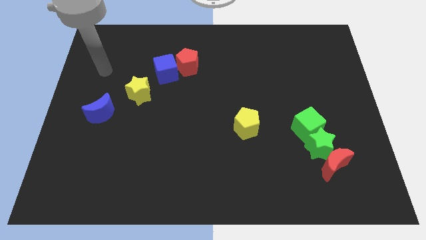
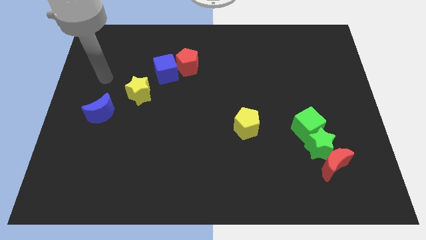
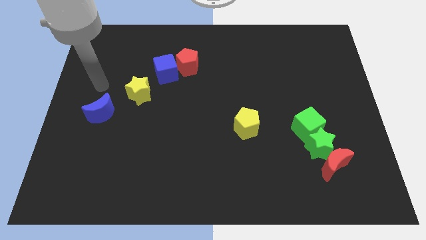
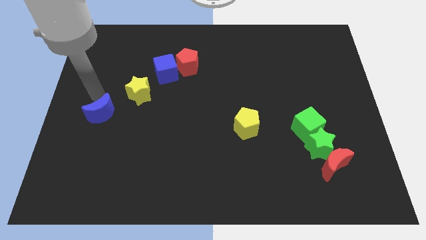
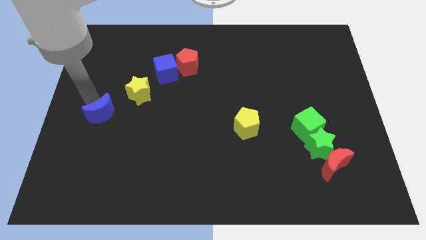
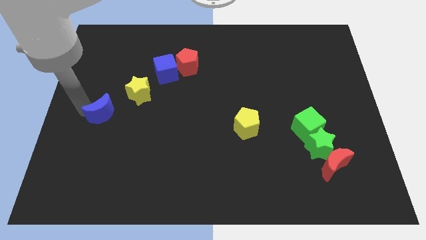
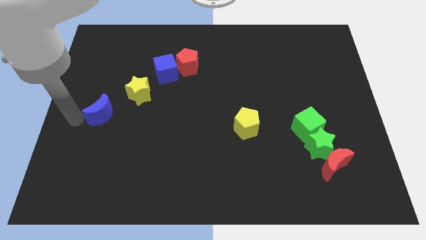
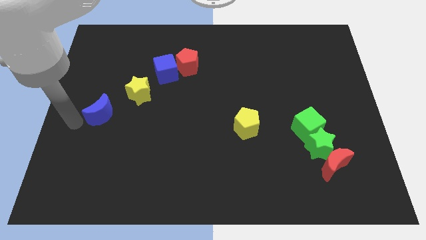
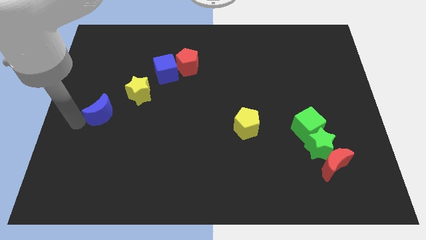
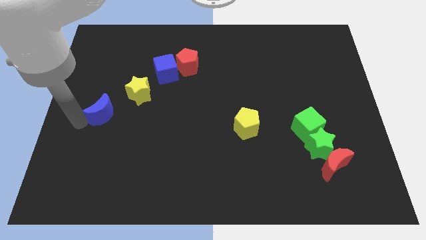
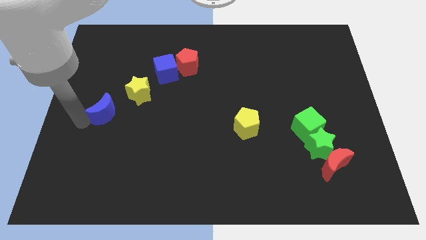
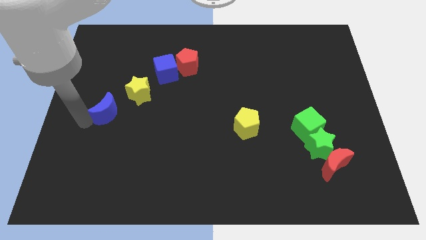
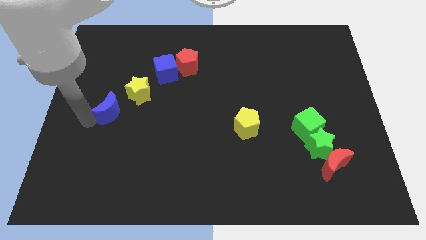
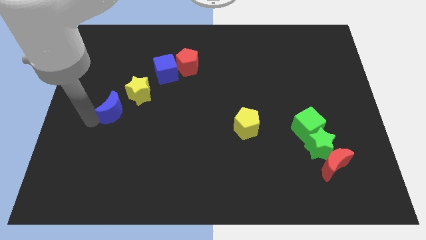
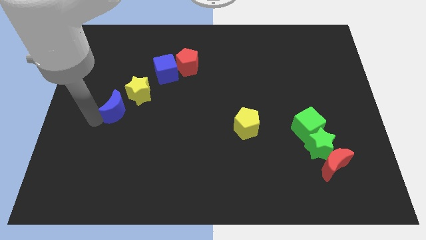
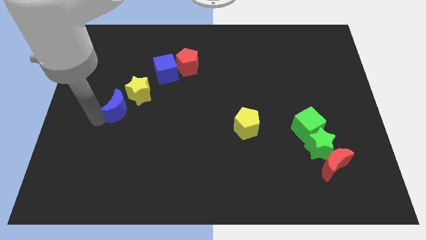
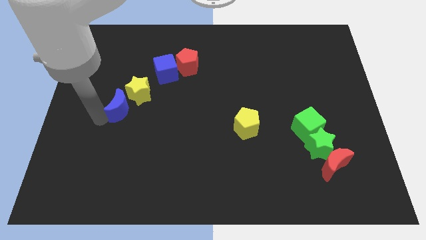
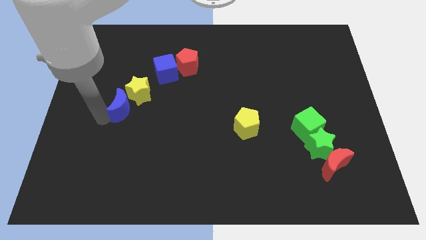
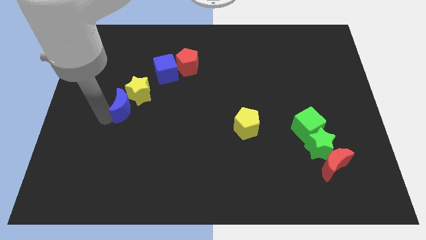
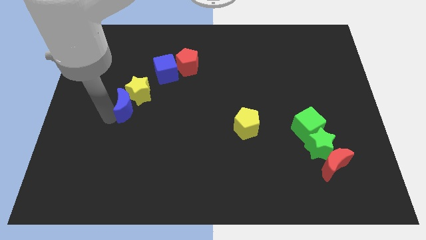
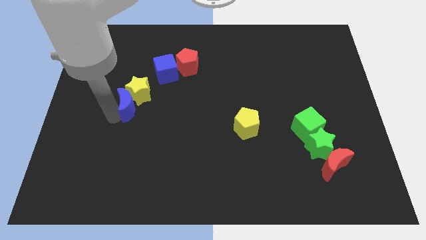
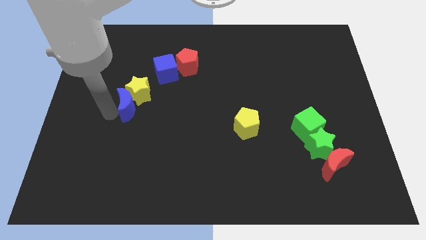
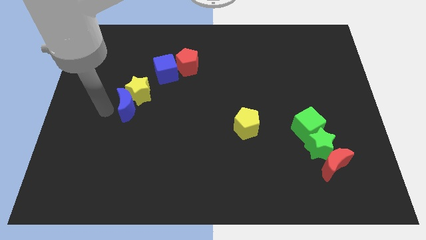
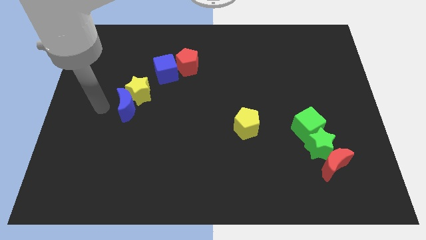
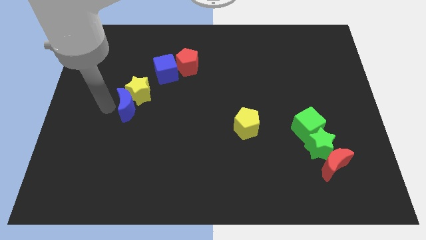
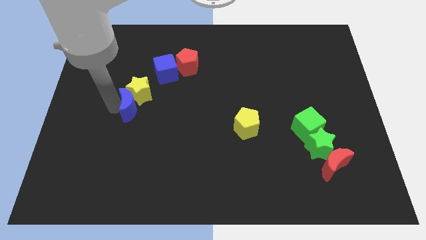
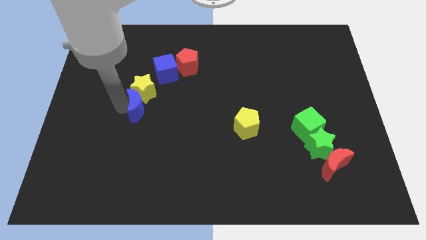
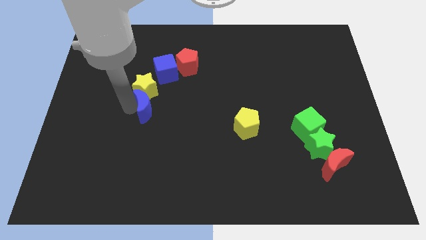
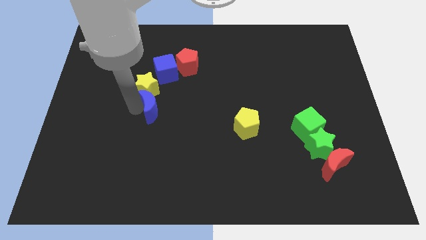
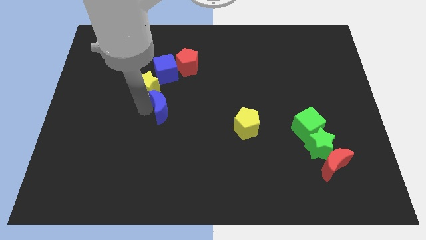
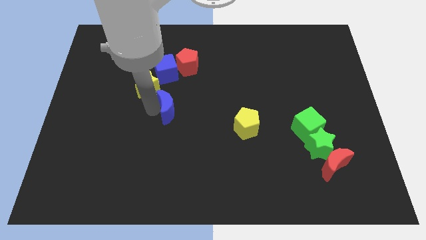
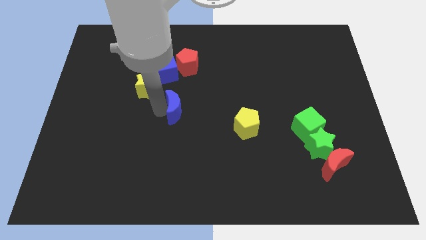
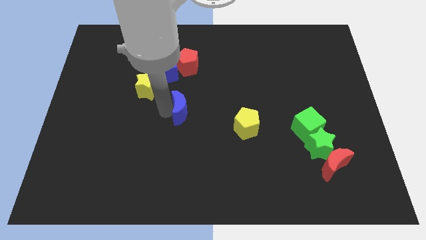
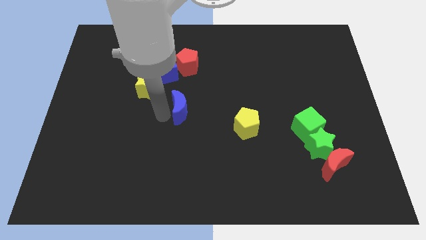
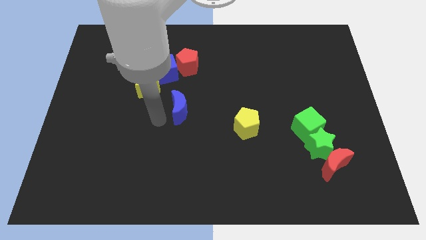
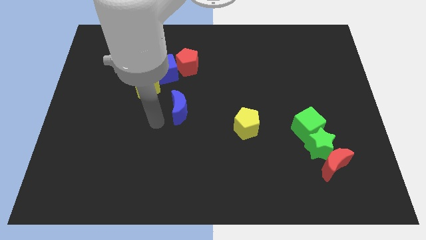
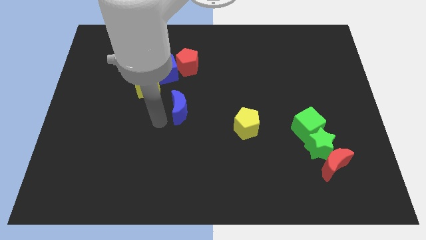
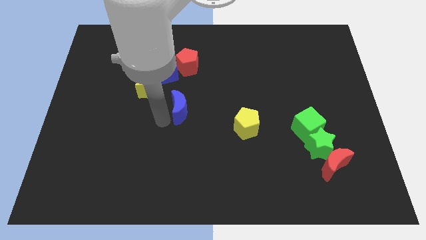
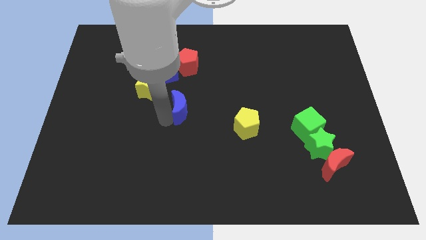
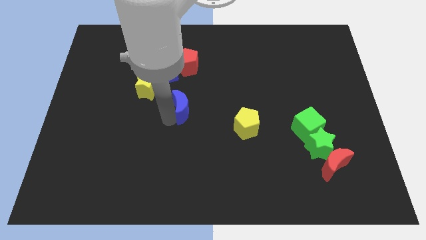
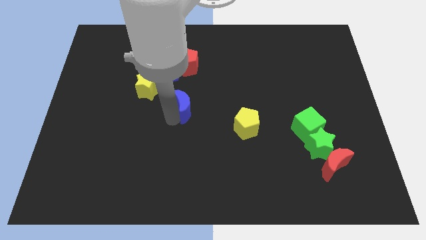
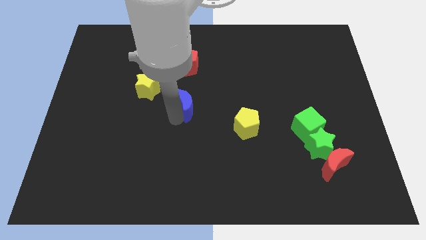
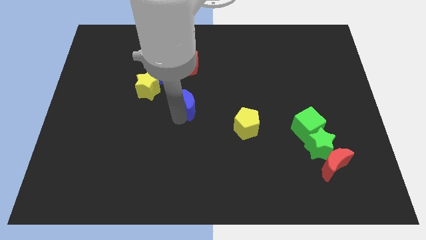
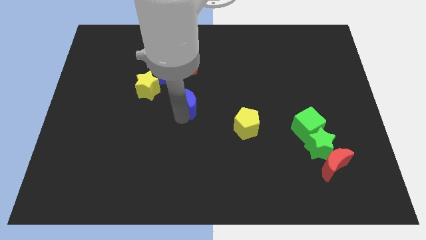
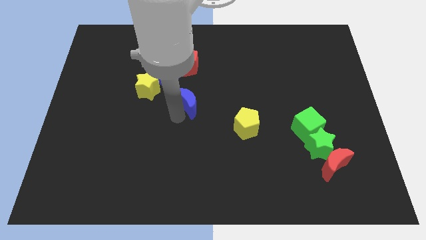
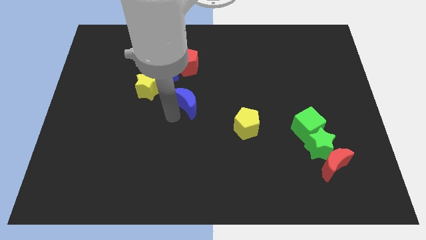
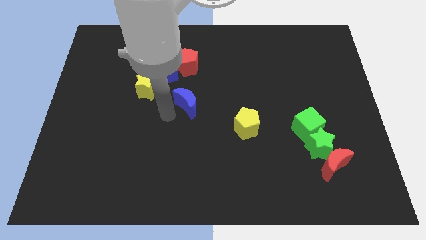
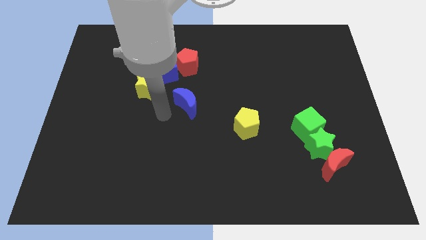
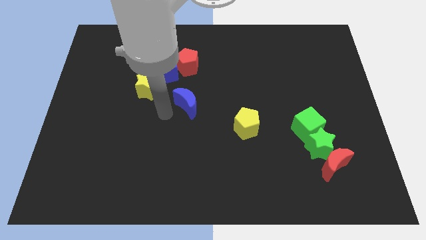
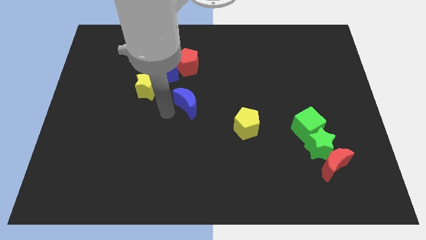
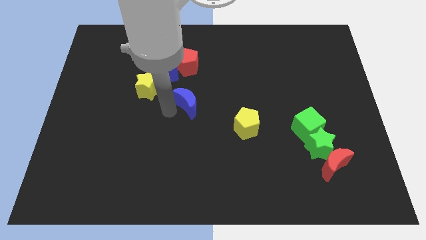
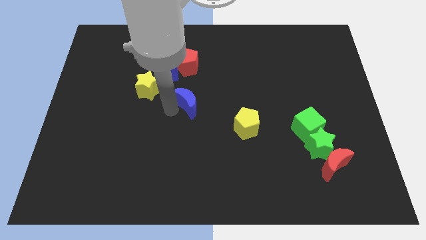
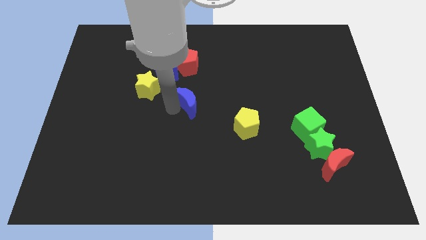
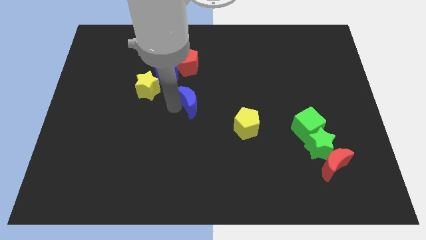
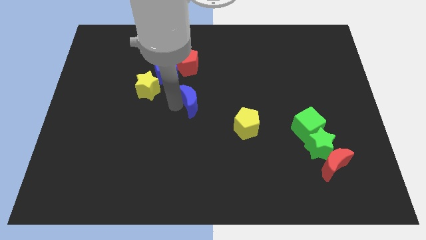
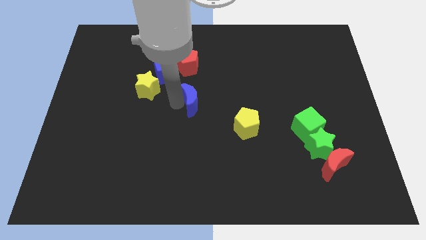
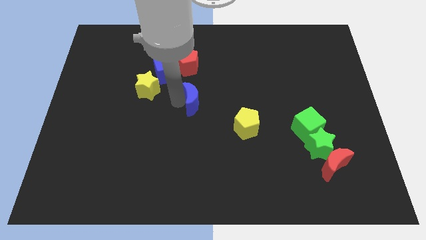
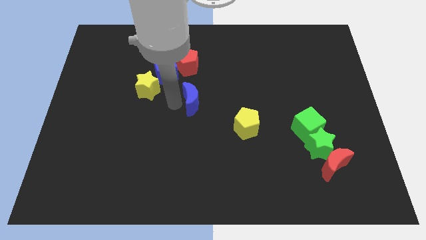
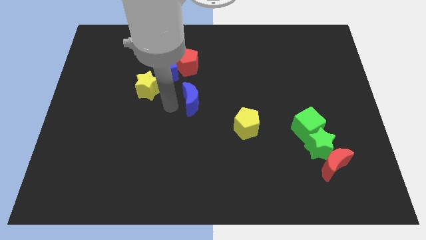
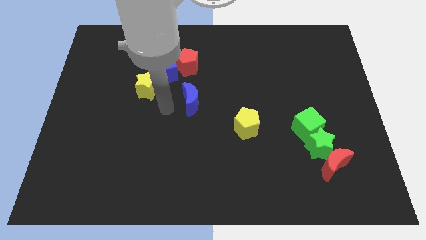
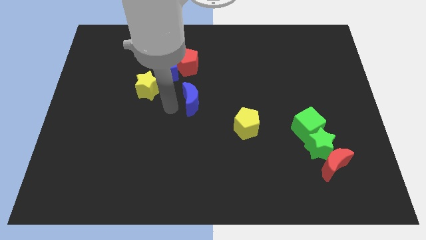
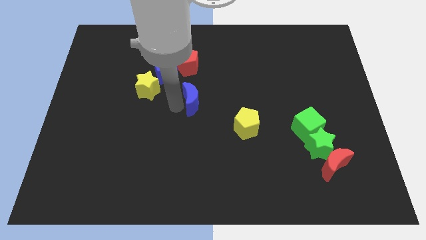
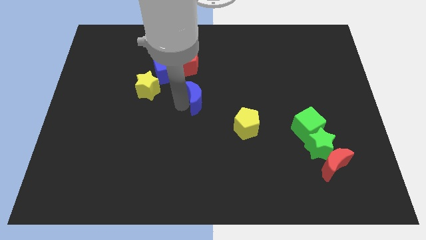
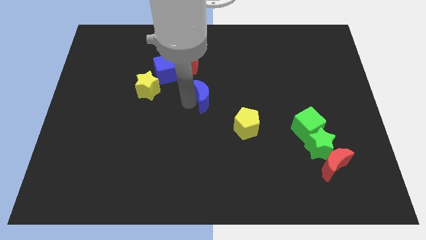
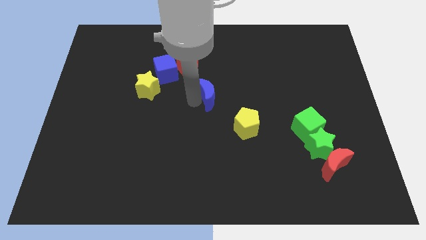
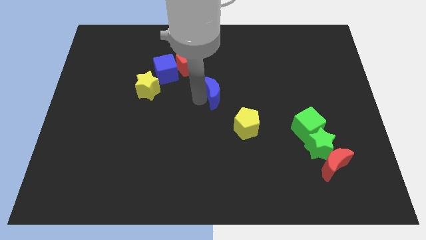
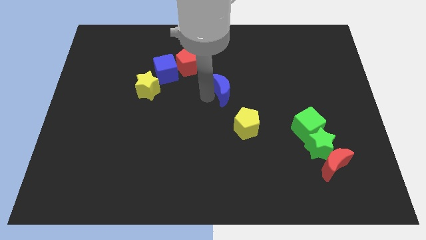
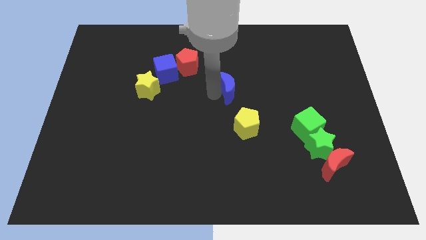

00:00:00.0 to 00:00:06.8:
put the blue moon to the top of the yellow pentagon
